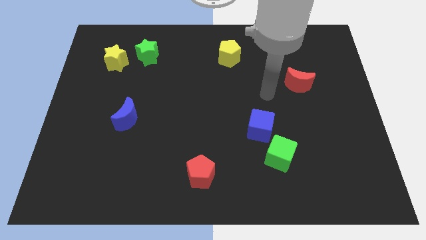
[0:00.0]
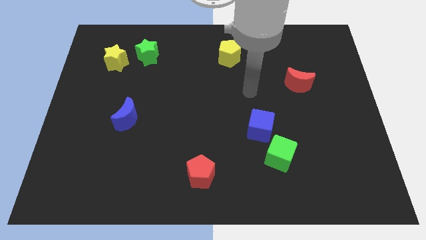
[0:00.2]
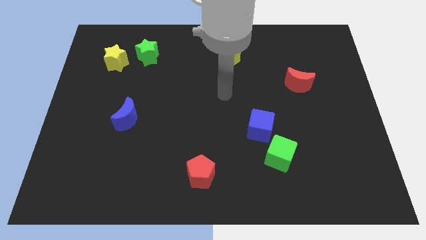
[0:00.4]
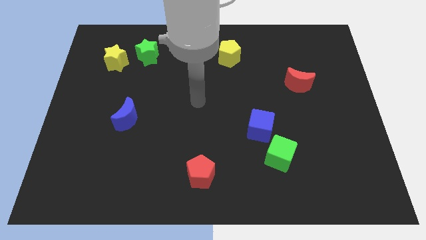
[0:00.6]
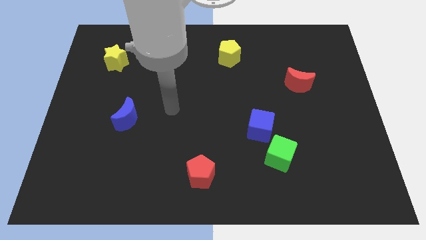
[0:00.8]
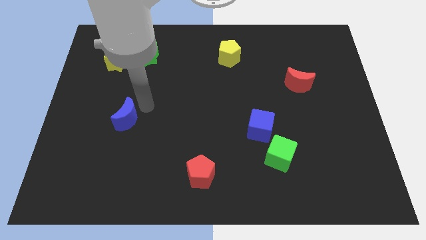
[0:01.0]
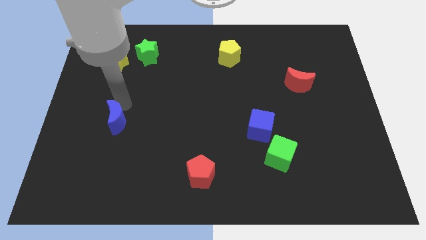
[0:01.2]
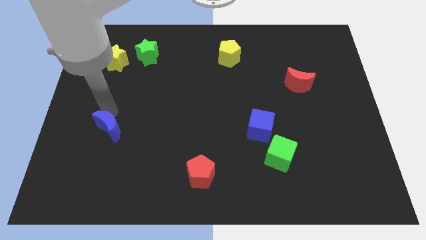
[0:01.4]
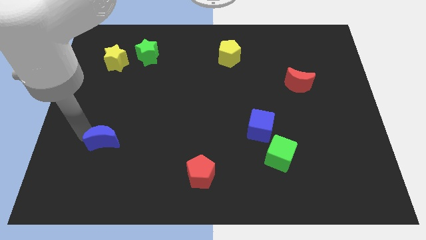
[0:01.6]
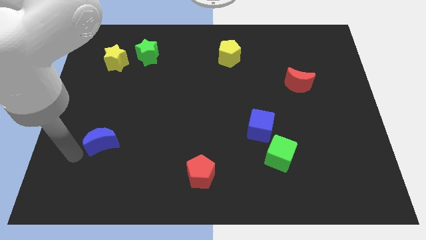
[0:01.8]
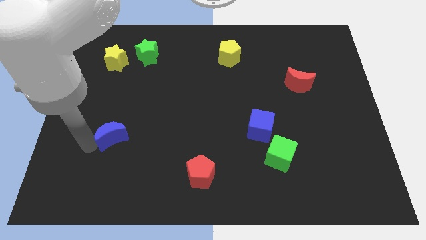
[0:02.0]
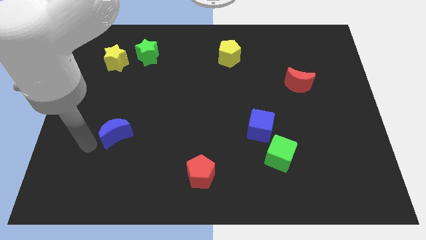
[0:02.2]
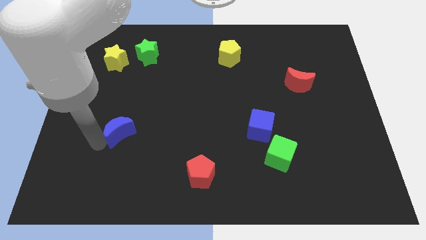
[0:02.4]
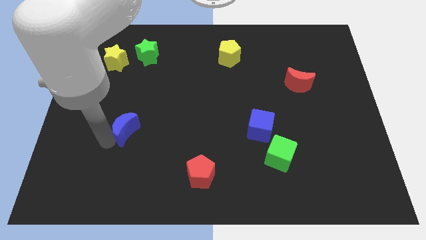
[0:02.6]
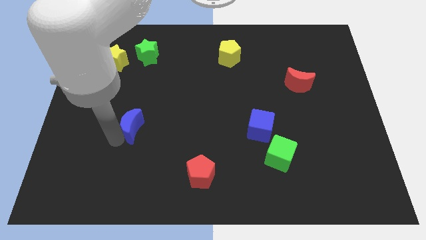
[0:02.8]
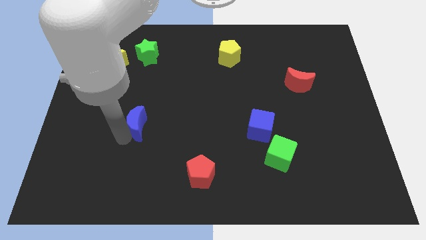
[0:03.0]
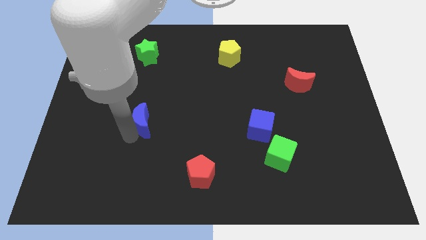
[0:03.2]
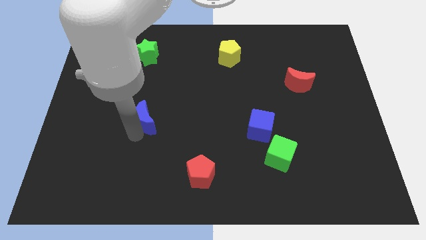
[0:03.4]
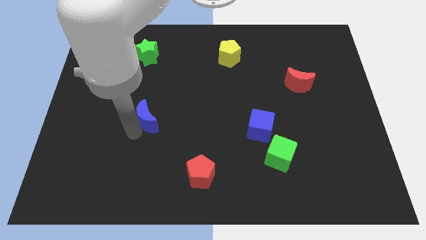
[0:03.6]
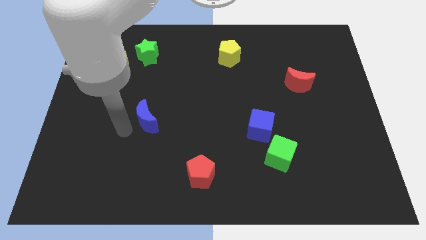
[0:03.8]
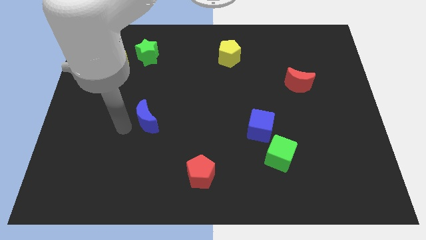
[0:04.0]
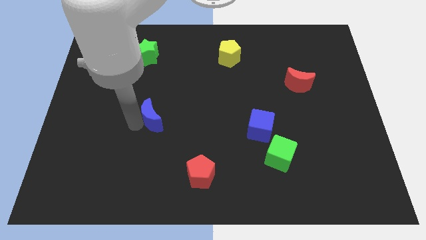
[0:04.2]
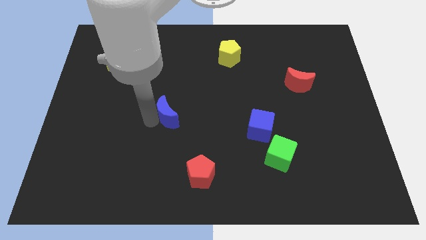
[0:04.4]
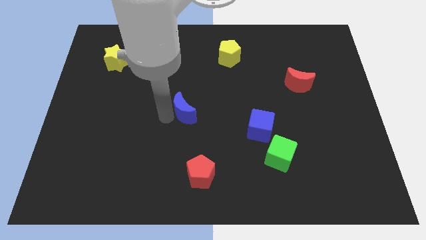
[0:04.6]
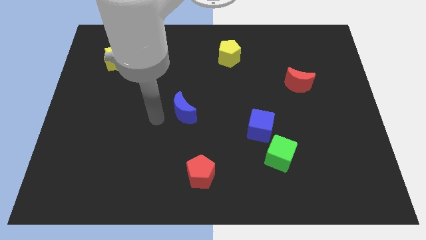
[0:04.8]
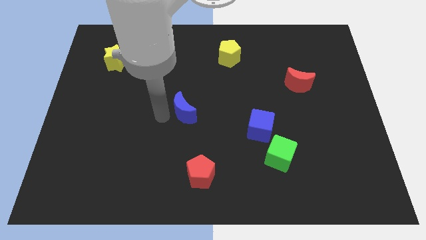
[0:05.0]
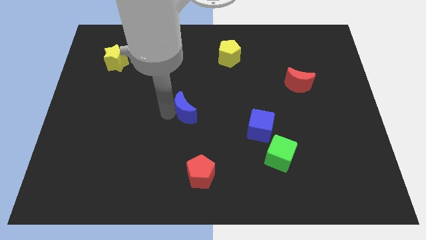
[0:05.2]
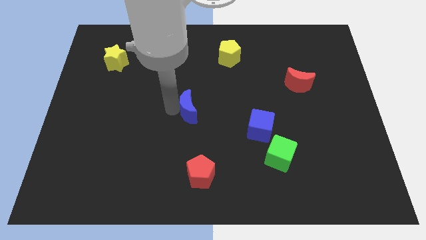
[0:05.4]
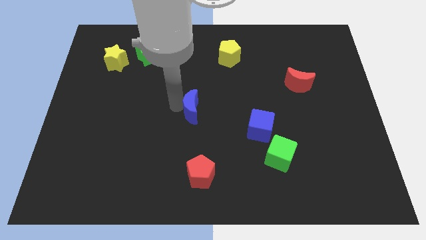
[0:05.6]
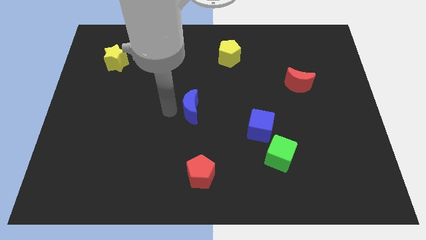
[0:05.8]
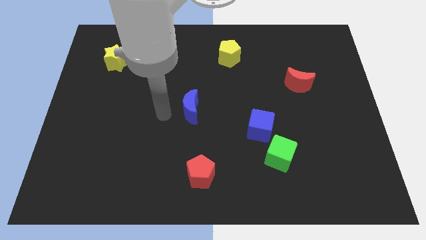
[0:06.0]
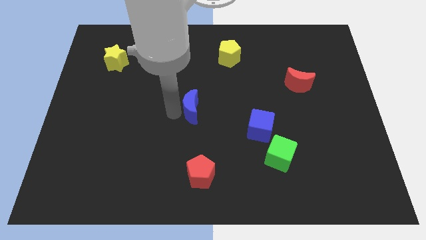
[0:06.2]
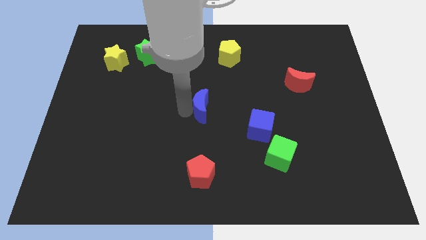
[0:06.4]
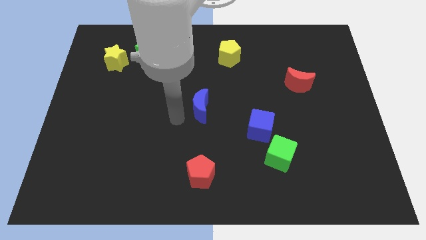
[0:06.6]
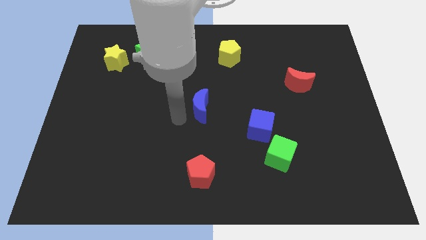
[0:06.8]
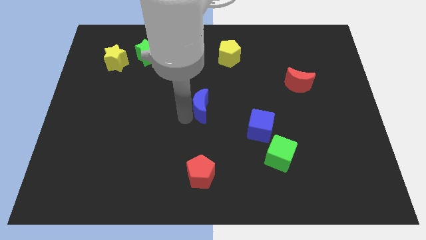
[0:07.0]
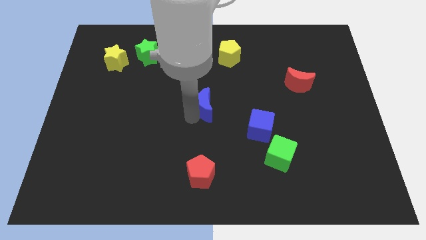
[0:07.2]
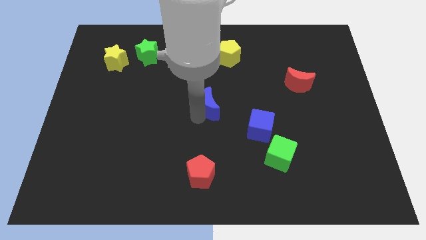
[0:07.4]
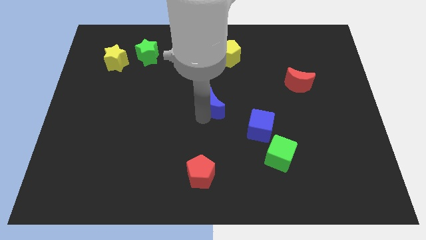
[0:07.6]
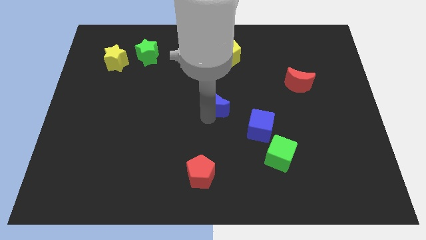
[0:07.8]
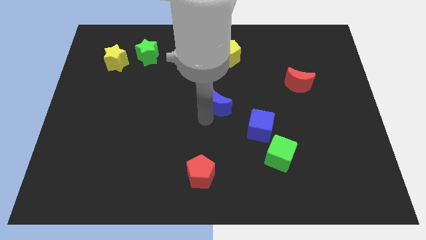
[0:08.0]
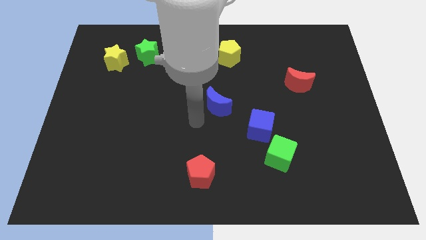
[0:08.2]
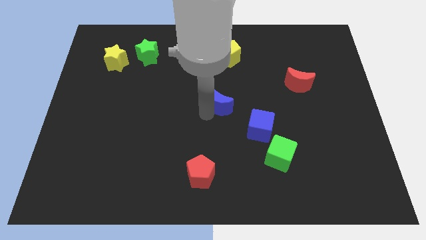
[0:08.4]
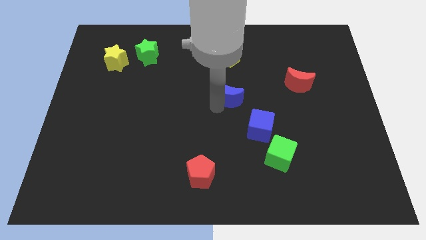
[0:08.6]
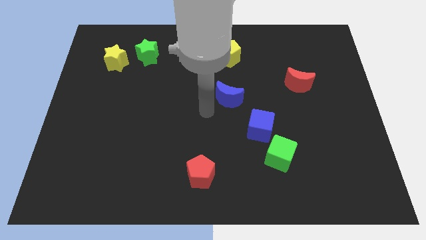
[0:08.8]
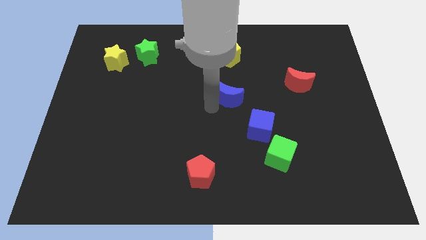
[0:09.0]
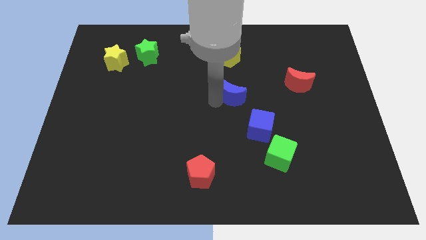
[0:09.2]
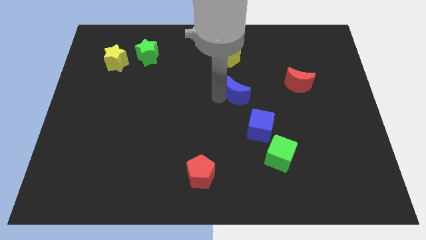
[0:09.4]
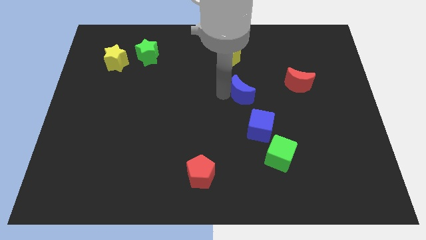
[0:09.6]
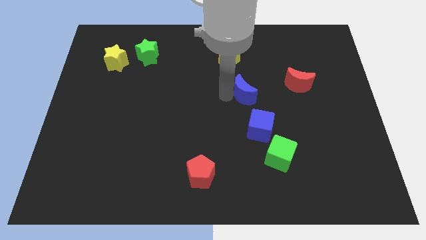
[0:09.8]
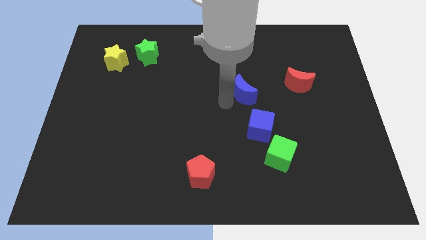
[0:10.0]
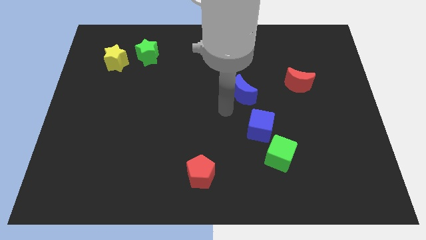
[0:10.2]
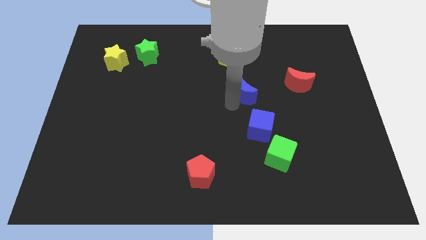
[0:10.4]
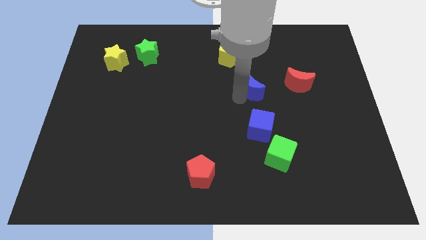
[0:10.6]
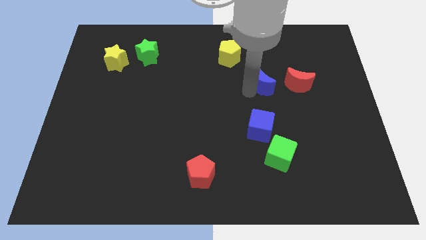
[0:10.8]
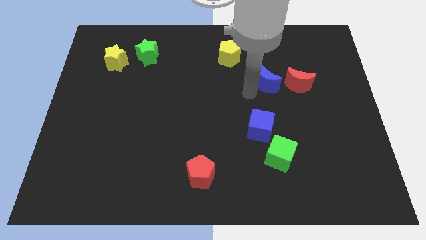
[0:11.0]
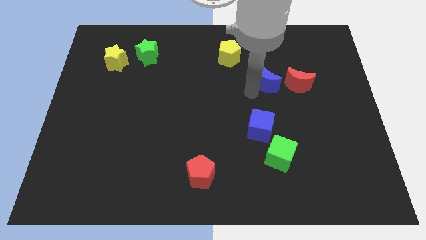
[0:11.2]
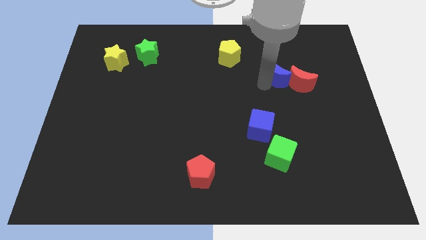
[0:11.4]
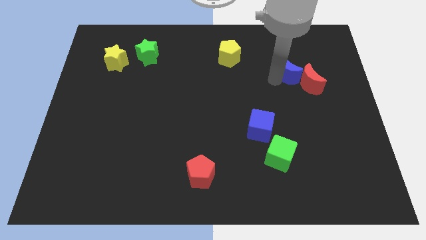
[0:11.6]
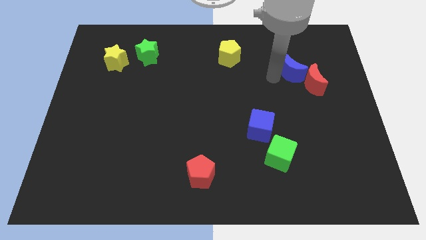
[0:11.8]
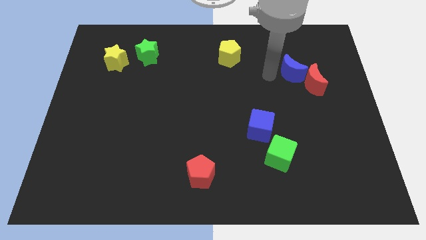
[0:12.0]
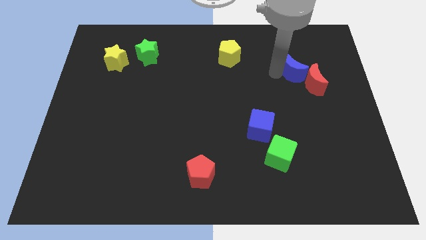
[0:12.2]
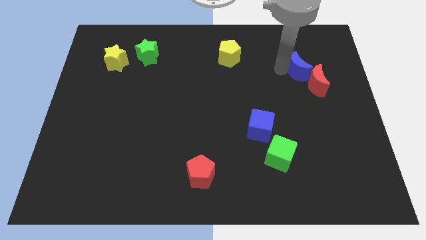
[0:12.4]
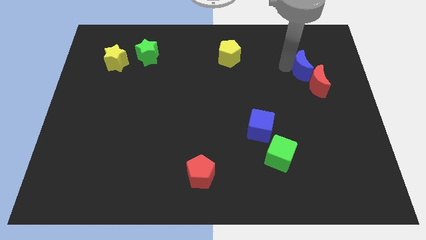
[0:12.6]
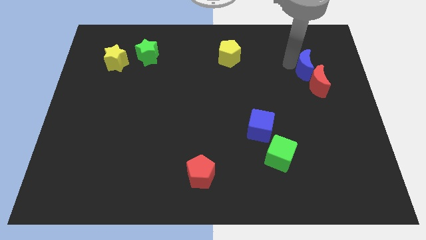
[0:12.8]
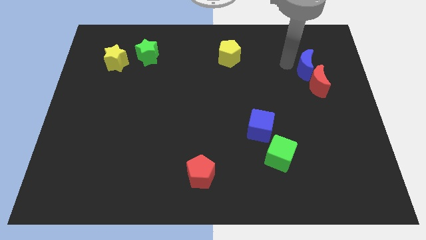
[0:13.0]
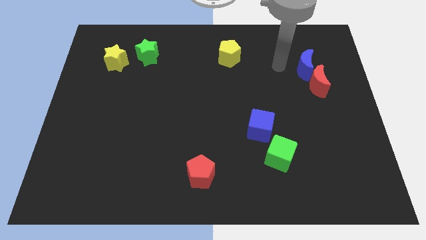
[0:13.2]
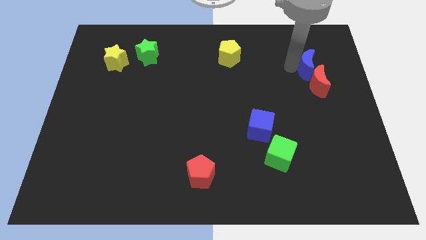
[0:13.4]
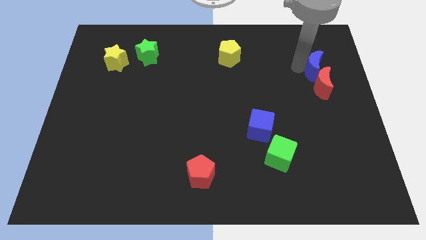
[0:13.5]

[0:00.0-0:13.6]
push the blue moon diagonally up and to the right of the red moon

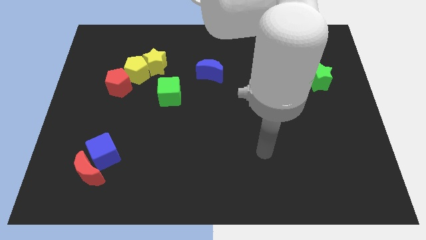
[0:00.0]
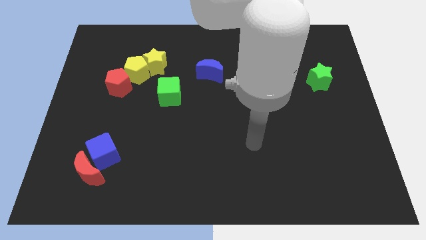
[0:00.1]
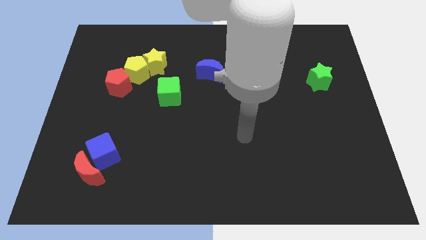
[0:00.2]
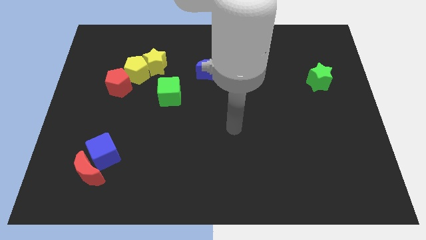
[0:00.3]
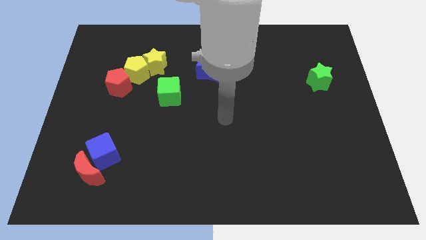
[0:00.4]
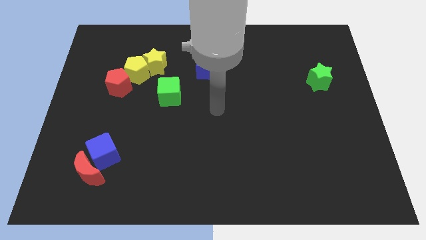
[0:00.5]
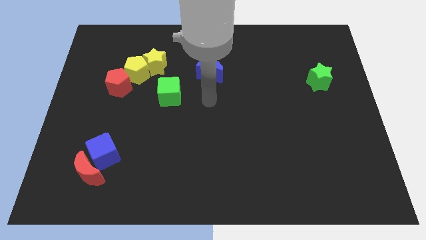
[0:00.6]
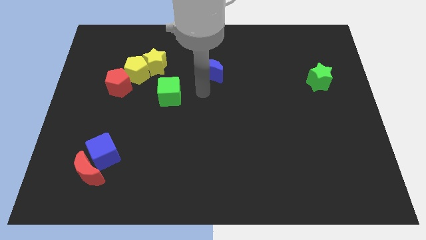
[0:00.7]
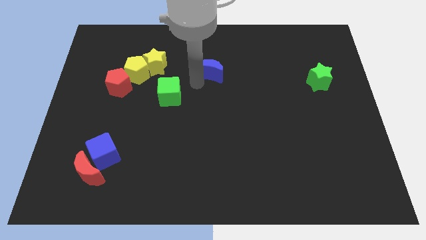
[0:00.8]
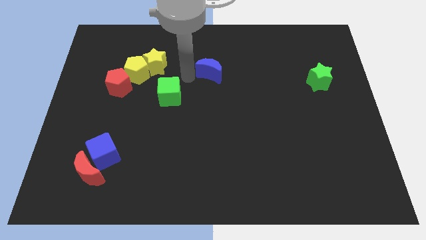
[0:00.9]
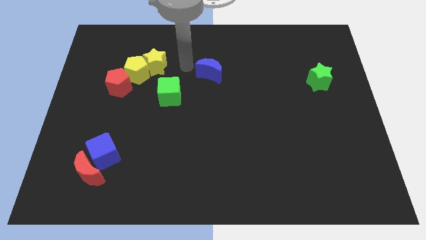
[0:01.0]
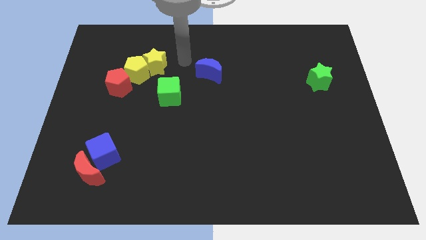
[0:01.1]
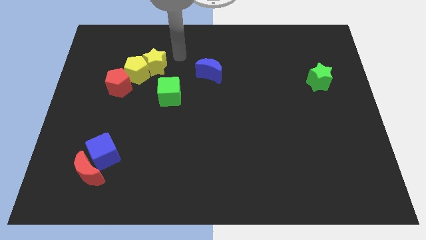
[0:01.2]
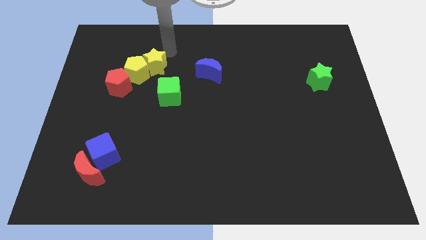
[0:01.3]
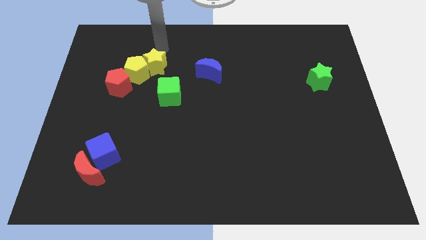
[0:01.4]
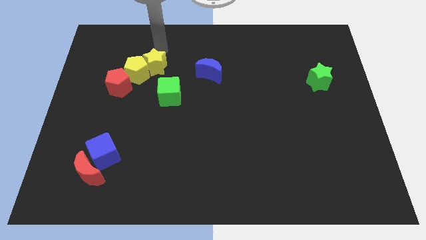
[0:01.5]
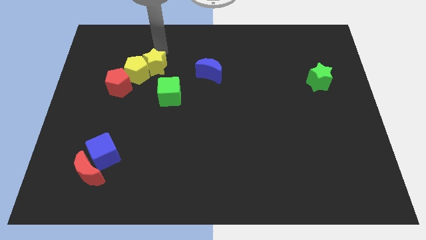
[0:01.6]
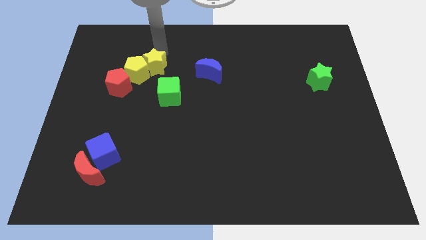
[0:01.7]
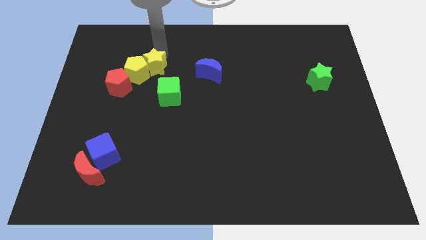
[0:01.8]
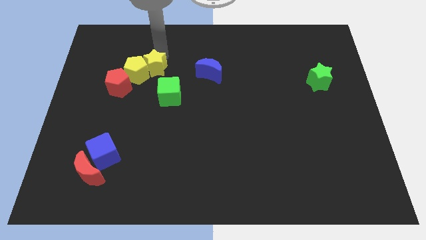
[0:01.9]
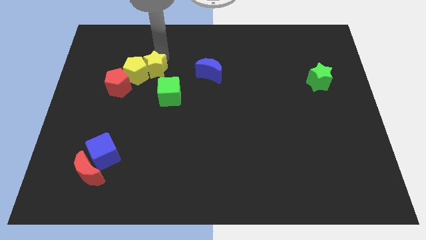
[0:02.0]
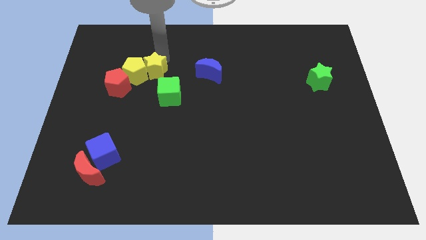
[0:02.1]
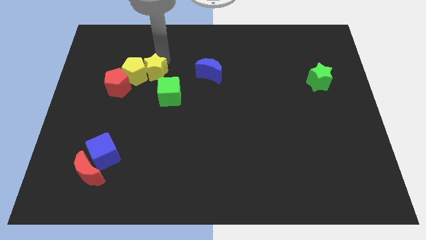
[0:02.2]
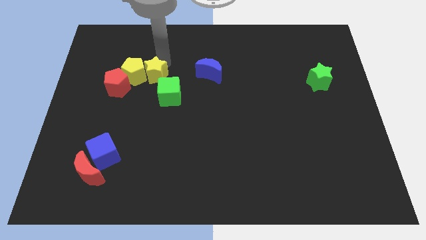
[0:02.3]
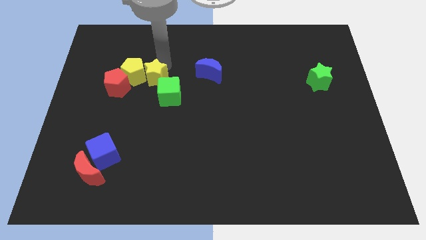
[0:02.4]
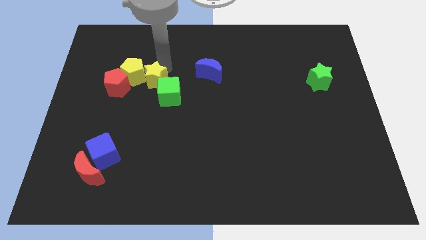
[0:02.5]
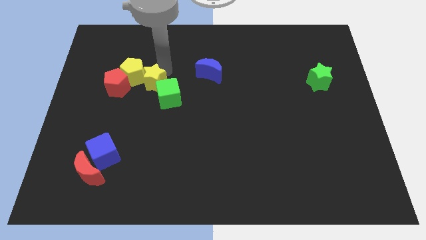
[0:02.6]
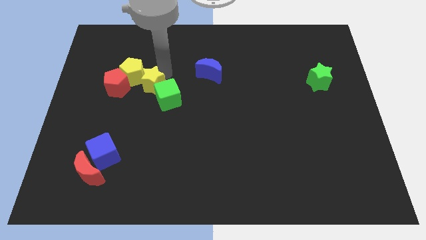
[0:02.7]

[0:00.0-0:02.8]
push the yellow star to the left of the green cube
